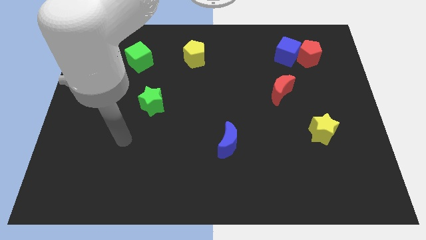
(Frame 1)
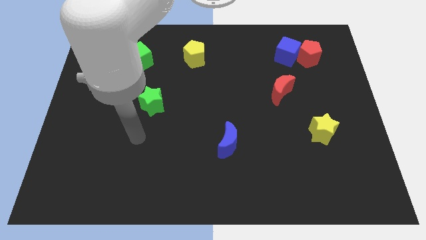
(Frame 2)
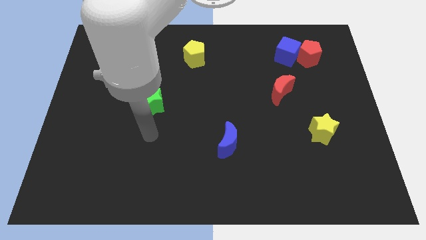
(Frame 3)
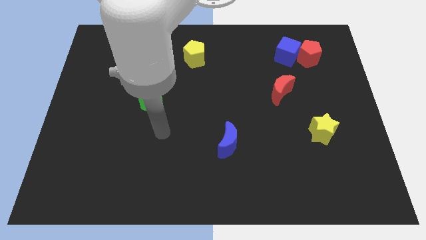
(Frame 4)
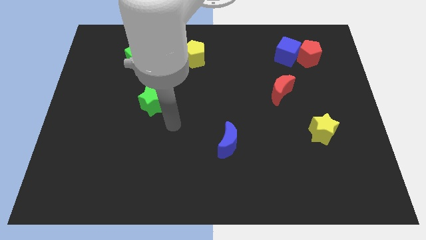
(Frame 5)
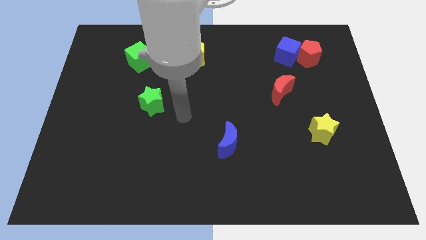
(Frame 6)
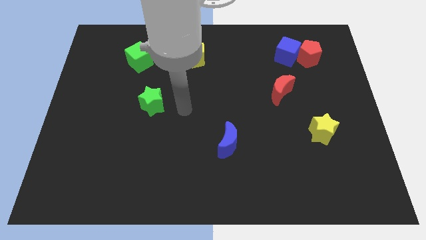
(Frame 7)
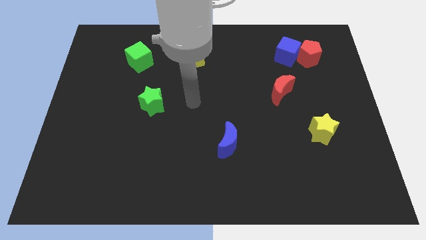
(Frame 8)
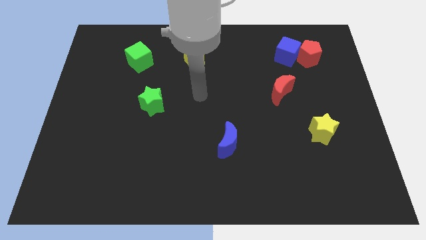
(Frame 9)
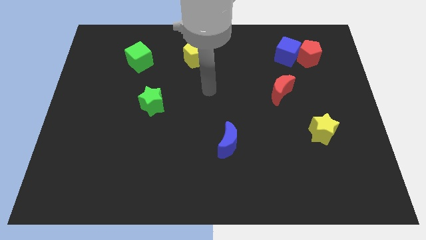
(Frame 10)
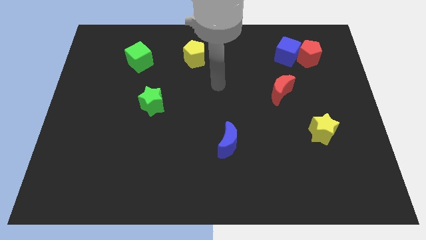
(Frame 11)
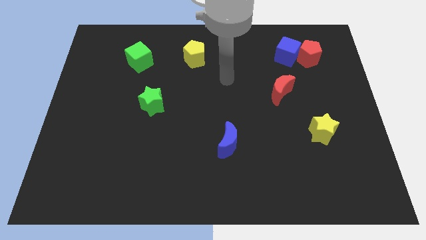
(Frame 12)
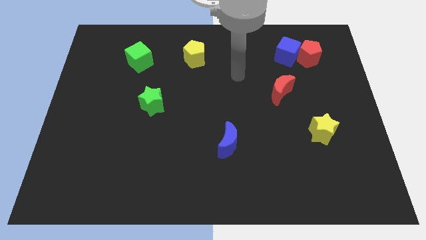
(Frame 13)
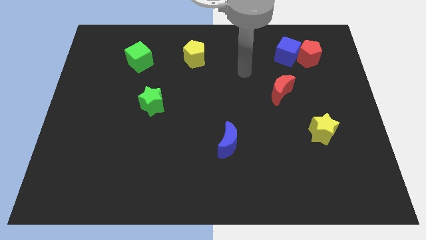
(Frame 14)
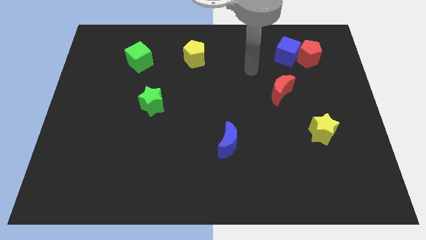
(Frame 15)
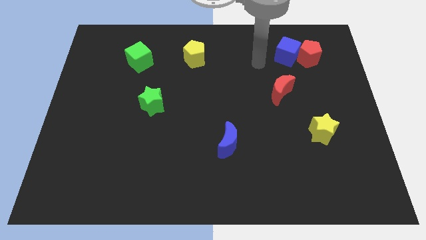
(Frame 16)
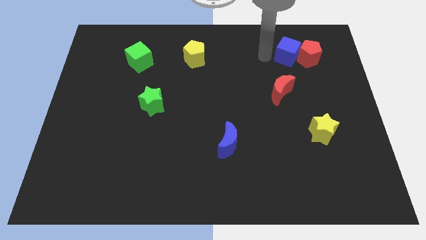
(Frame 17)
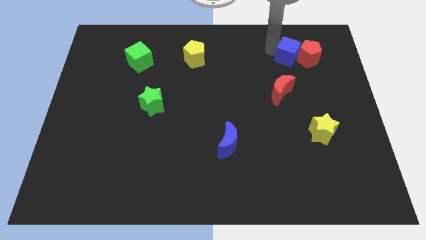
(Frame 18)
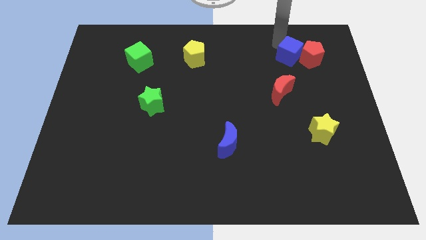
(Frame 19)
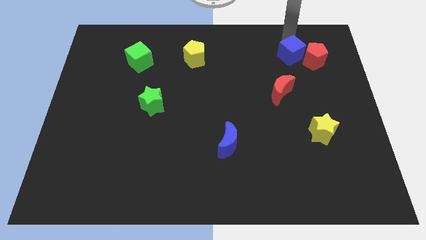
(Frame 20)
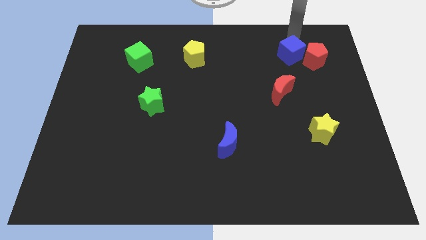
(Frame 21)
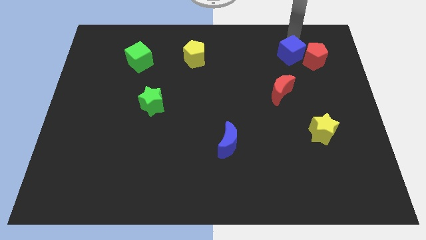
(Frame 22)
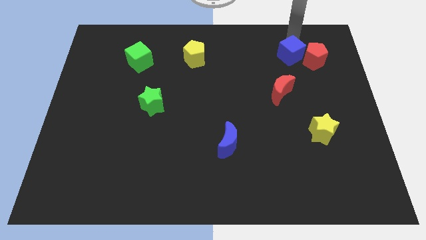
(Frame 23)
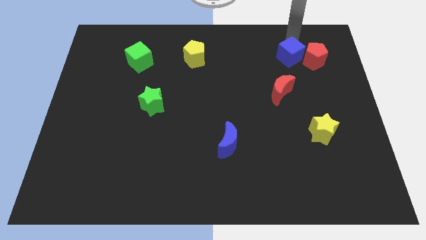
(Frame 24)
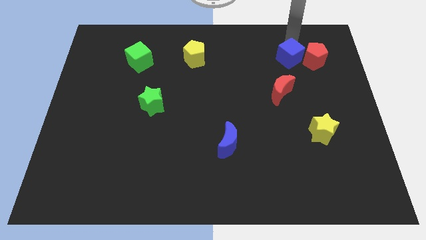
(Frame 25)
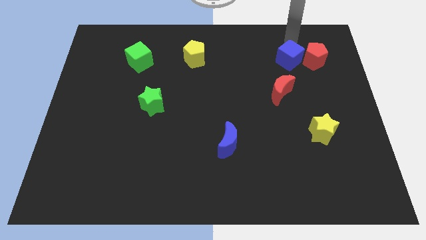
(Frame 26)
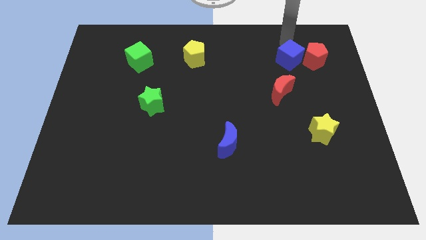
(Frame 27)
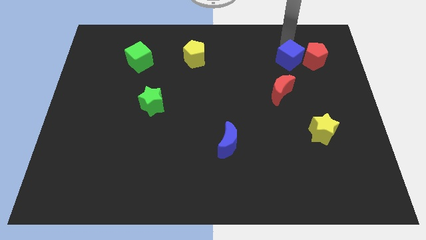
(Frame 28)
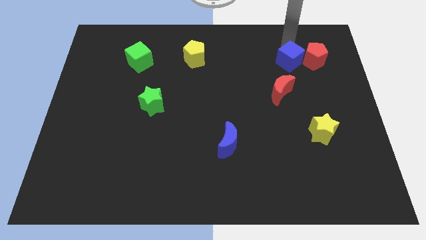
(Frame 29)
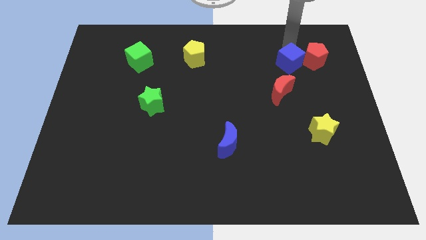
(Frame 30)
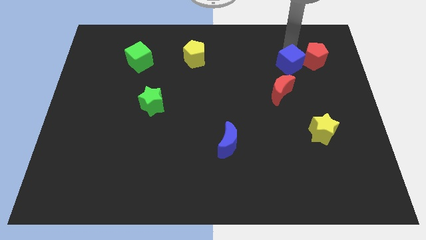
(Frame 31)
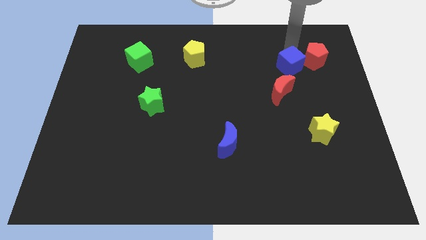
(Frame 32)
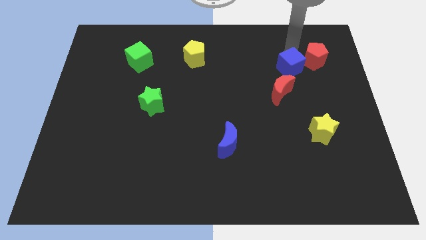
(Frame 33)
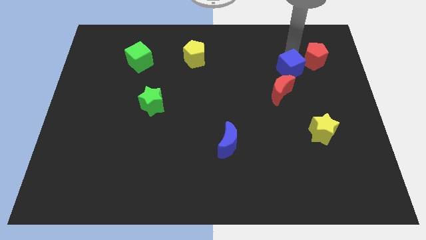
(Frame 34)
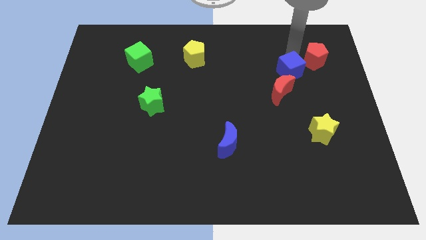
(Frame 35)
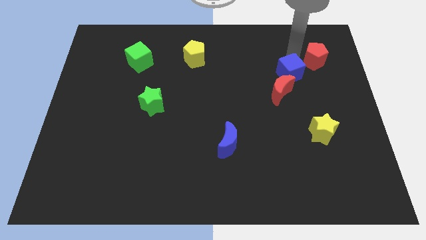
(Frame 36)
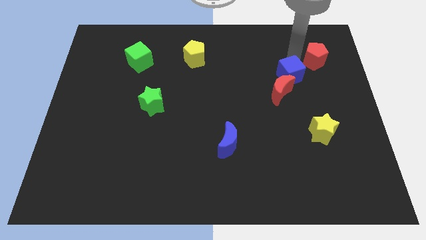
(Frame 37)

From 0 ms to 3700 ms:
slightly slide the blue cube down

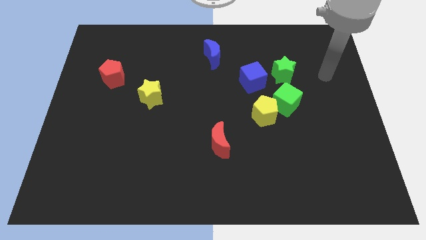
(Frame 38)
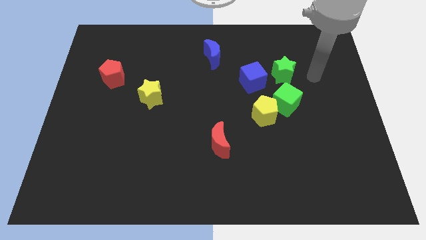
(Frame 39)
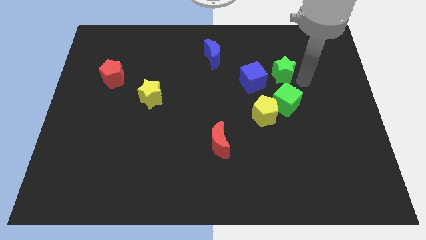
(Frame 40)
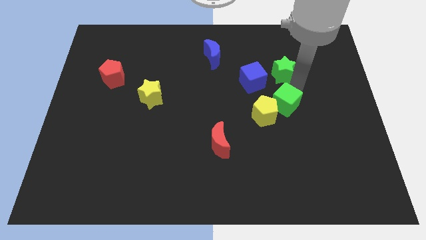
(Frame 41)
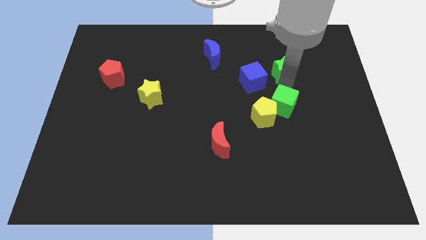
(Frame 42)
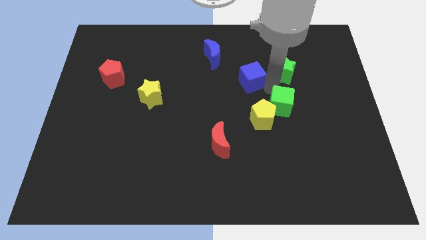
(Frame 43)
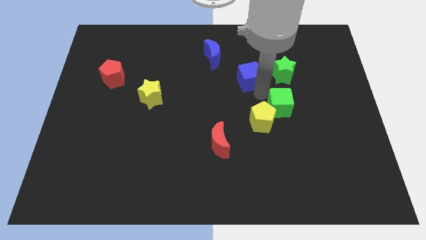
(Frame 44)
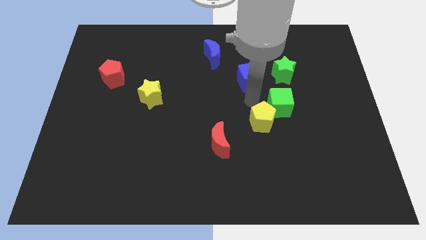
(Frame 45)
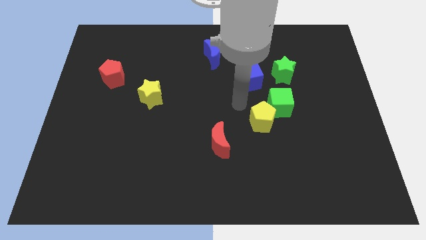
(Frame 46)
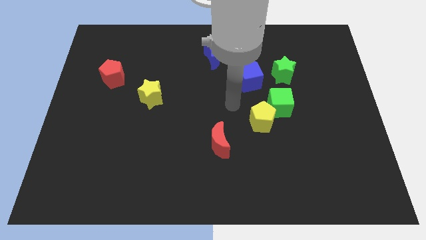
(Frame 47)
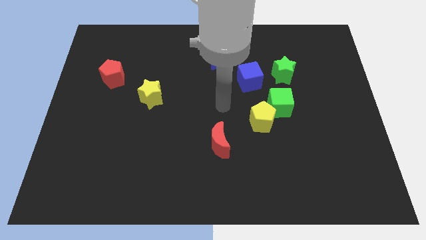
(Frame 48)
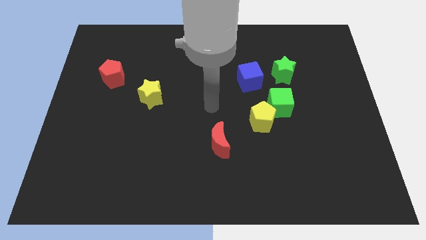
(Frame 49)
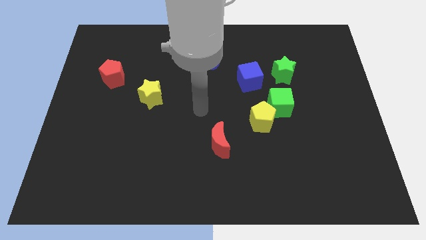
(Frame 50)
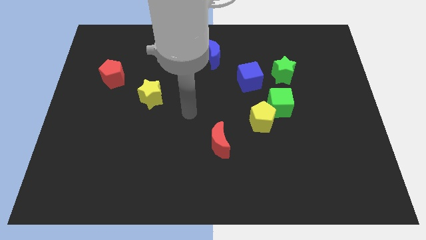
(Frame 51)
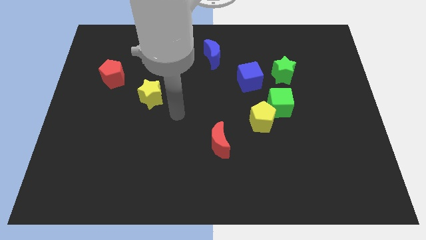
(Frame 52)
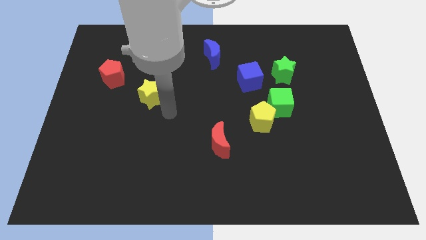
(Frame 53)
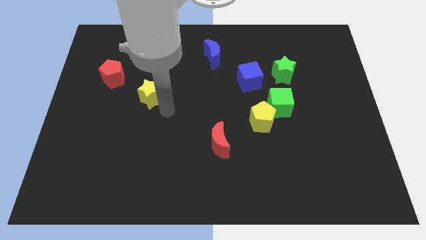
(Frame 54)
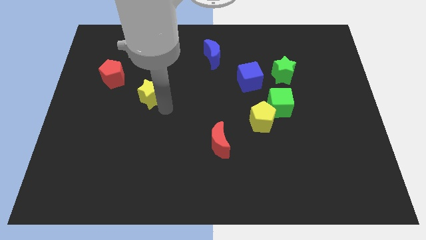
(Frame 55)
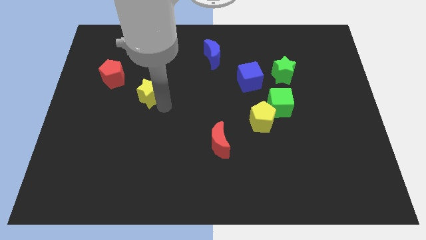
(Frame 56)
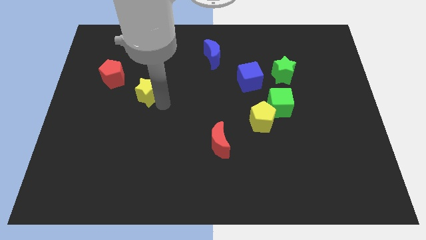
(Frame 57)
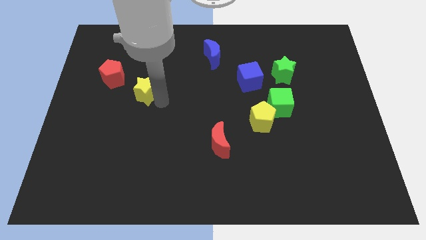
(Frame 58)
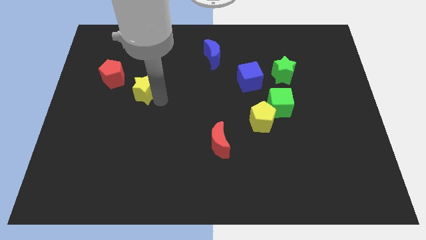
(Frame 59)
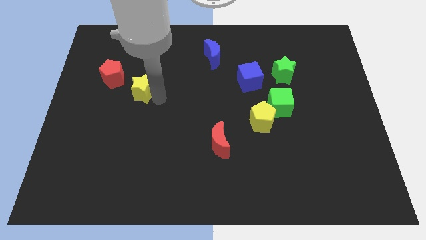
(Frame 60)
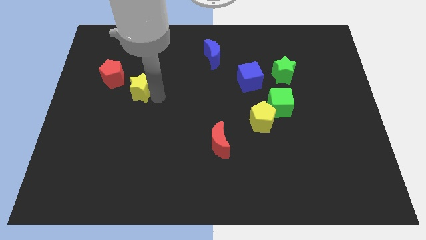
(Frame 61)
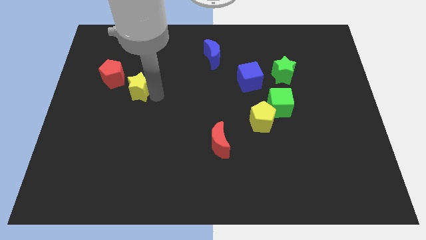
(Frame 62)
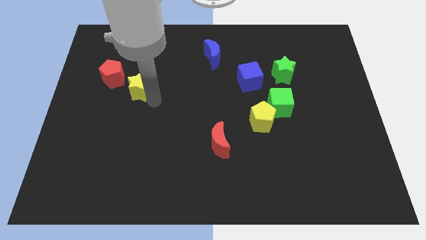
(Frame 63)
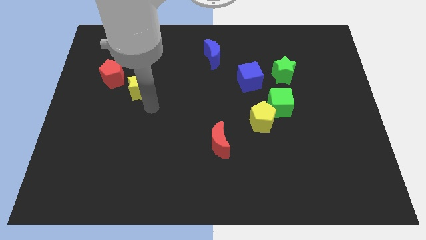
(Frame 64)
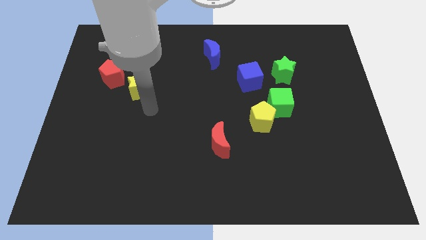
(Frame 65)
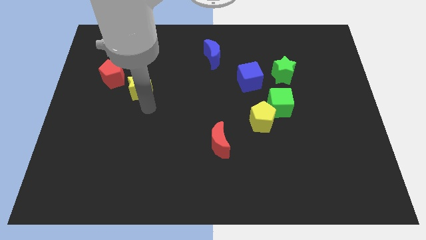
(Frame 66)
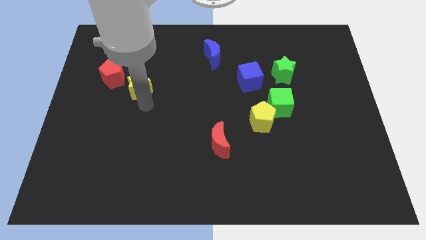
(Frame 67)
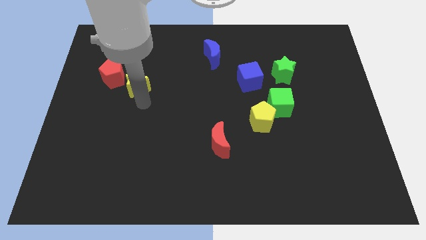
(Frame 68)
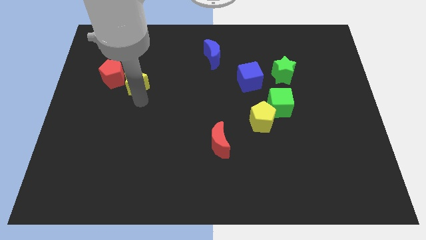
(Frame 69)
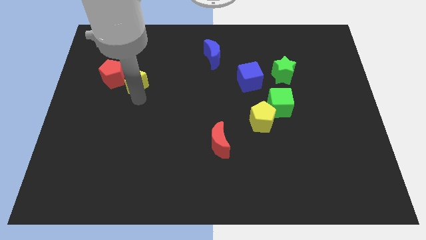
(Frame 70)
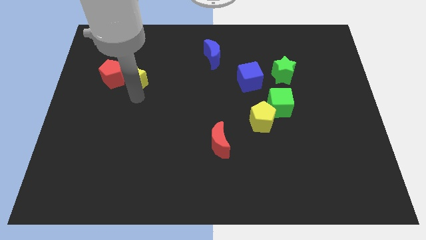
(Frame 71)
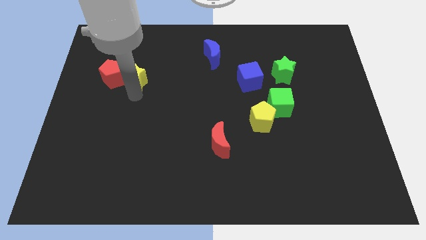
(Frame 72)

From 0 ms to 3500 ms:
slightly push the yellow star upwards and then to the left

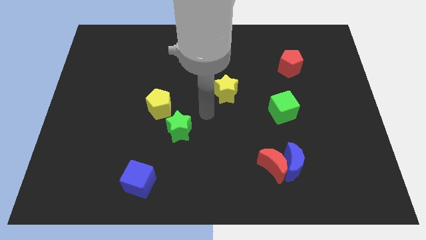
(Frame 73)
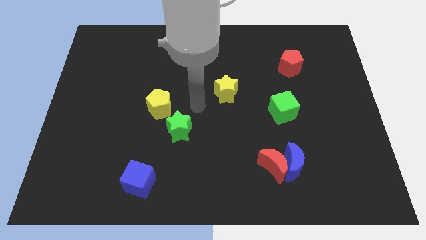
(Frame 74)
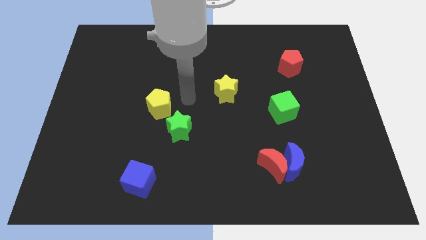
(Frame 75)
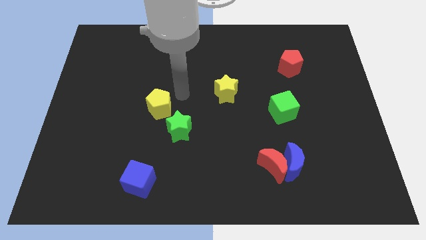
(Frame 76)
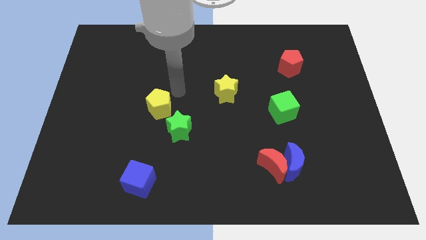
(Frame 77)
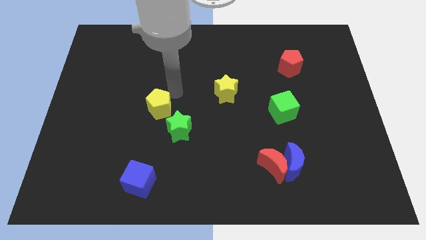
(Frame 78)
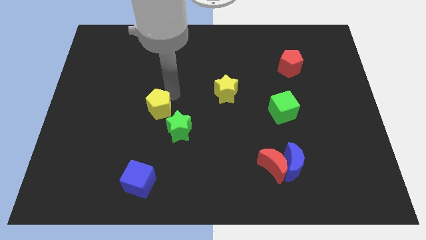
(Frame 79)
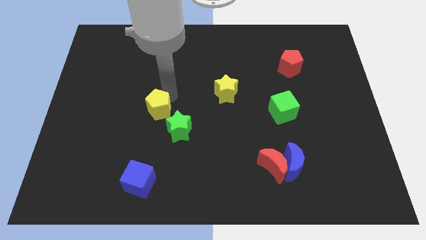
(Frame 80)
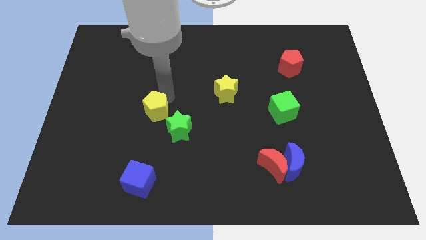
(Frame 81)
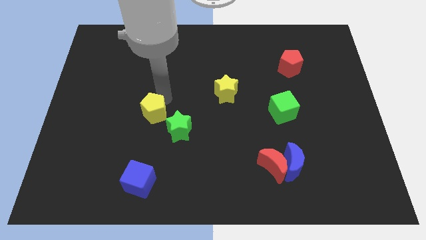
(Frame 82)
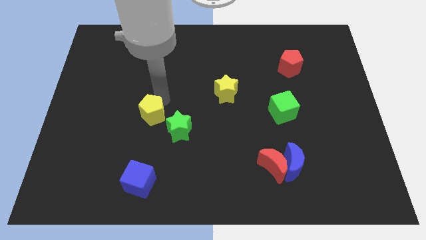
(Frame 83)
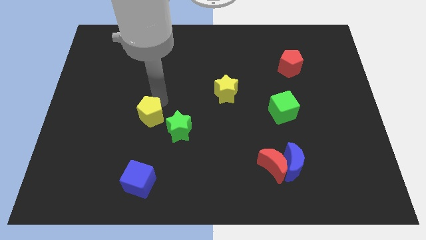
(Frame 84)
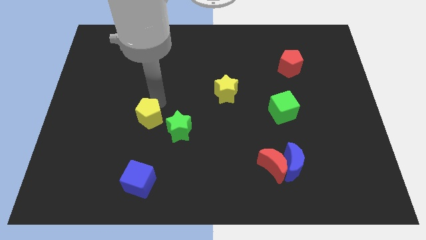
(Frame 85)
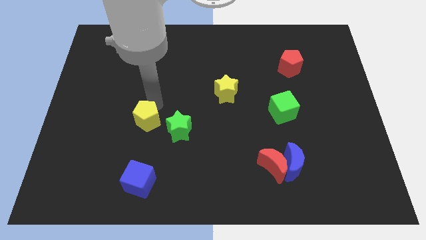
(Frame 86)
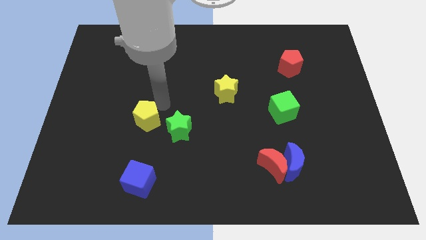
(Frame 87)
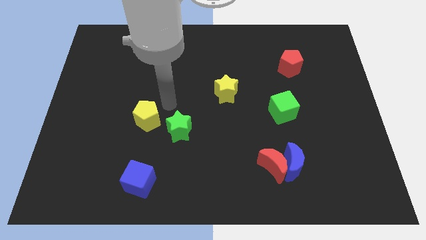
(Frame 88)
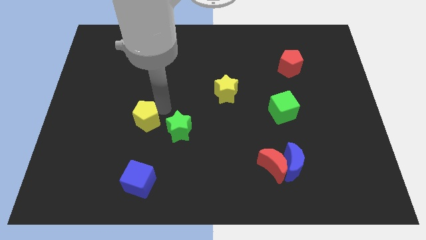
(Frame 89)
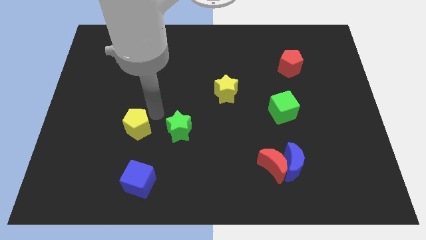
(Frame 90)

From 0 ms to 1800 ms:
move the yellow pentagon diagonally downwards and left somewhat
